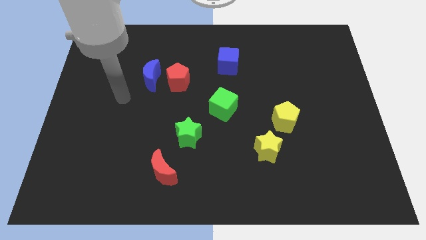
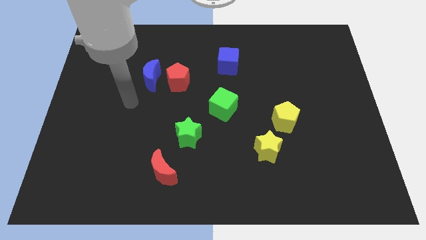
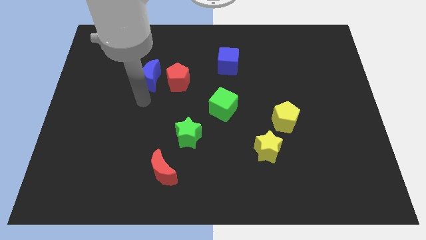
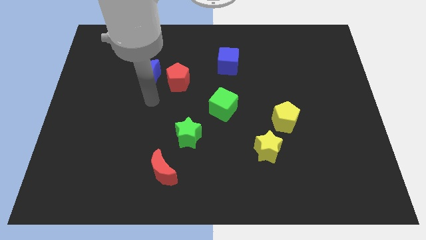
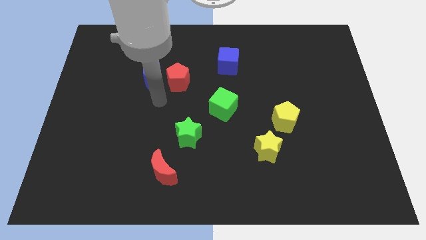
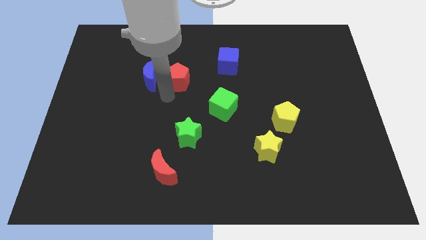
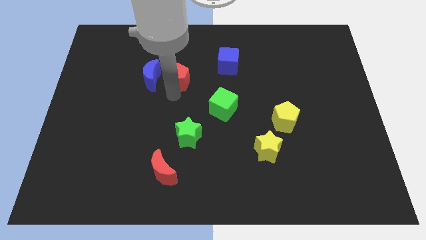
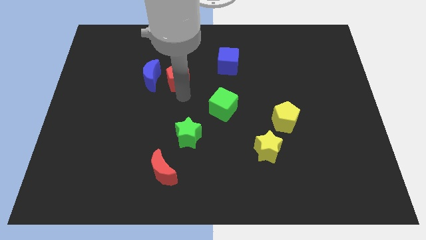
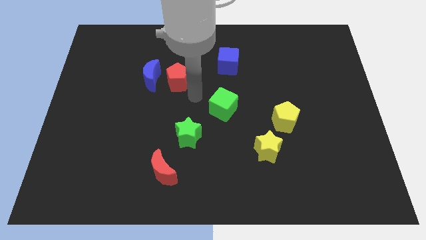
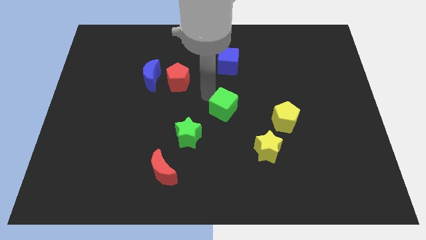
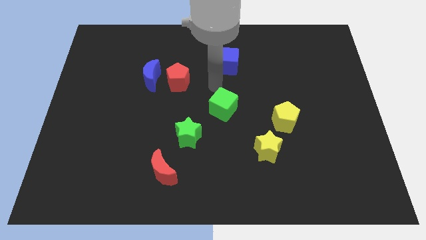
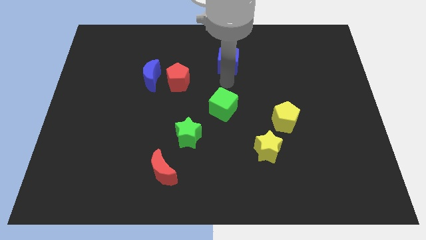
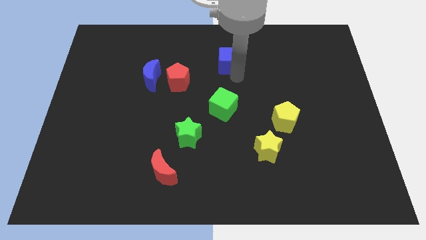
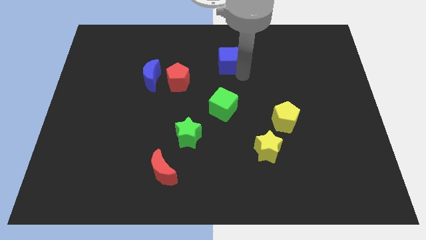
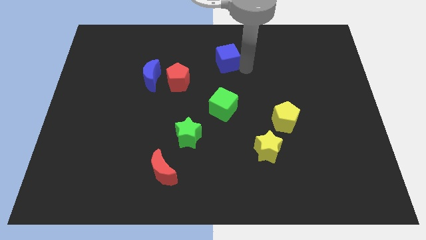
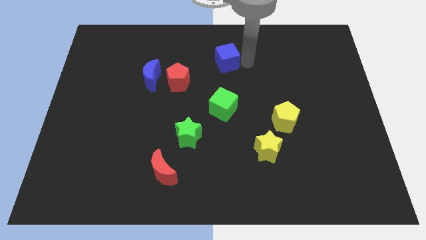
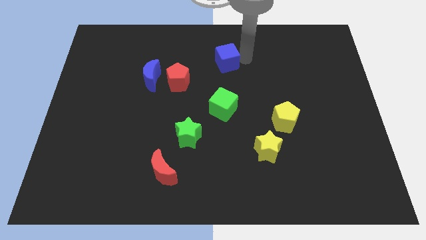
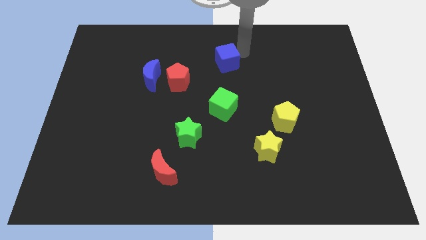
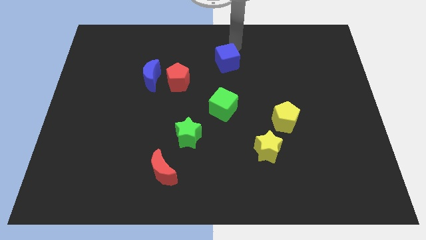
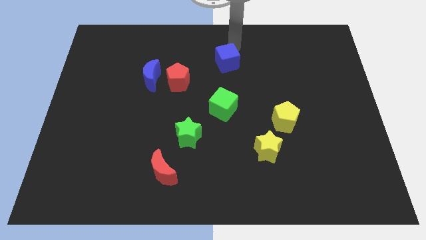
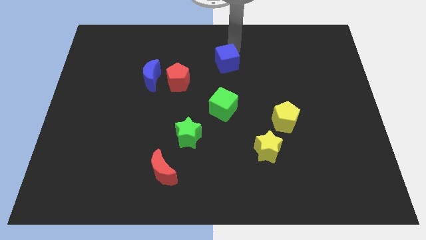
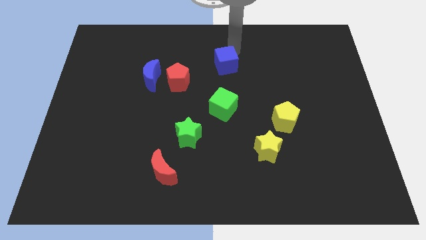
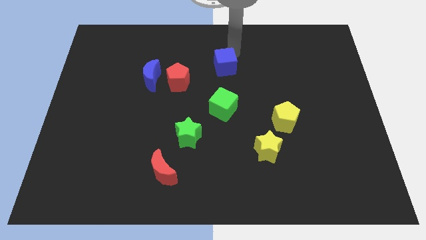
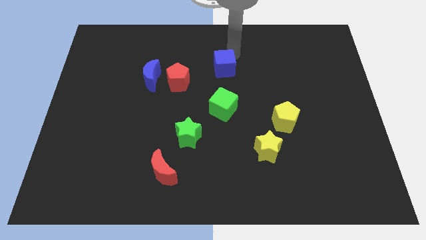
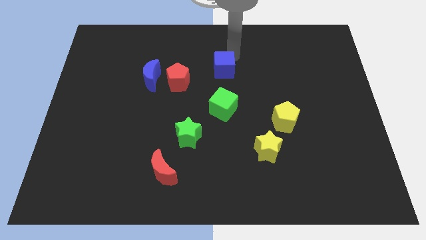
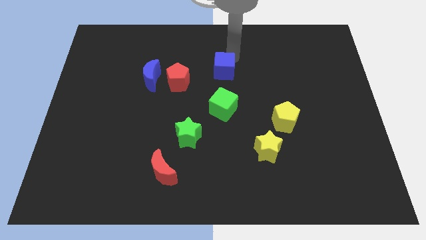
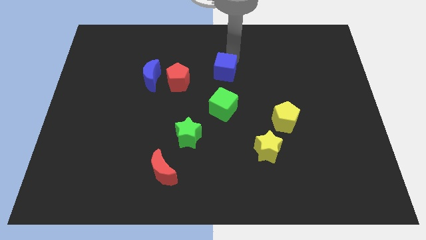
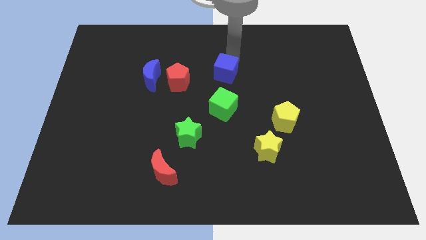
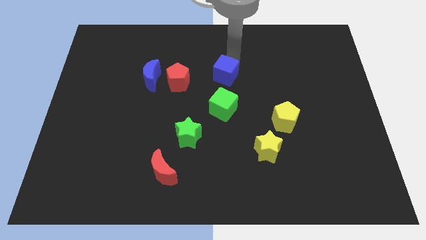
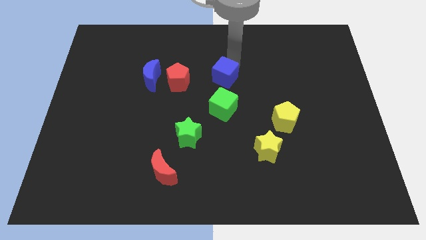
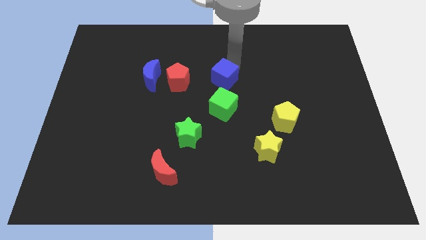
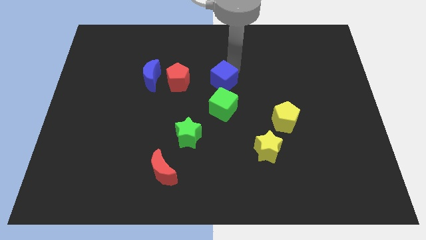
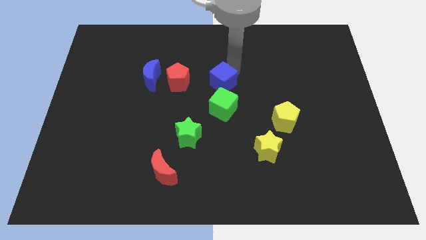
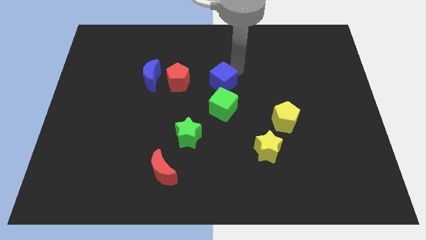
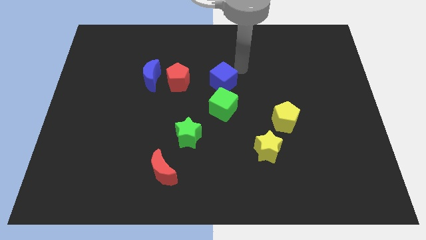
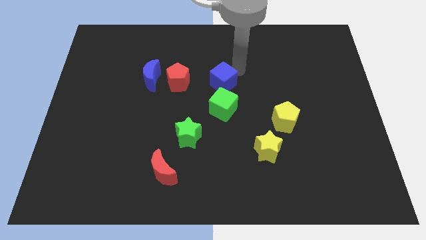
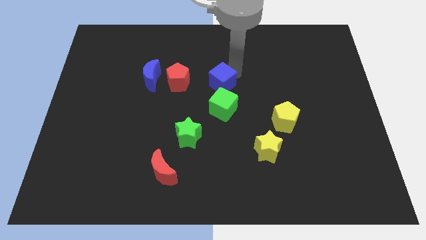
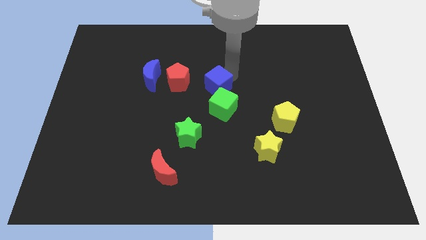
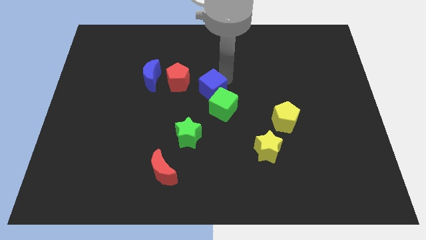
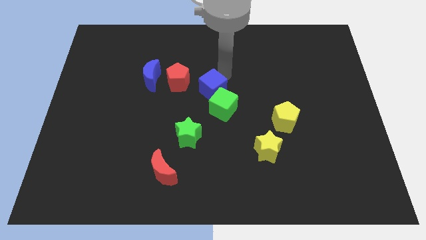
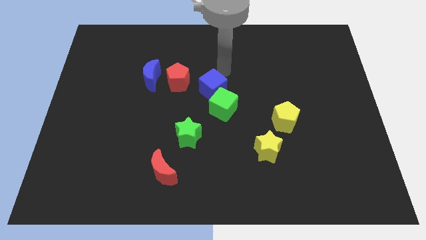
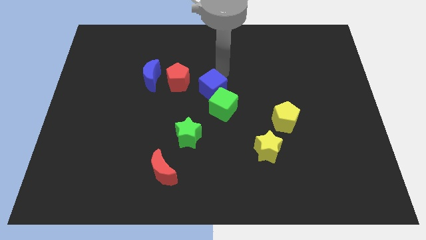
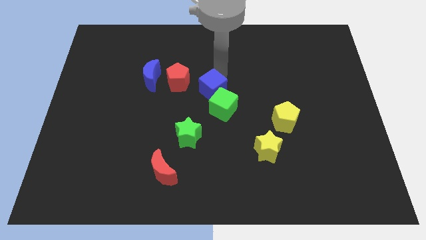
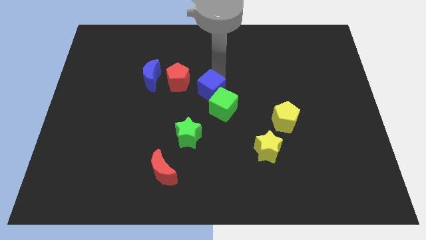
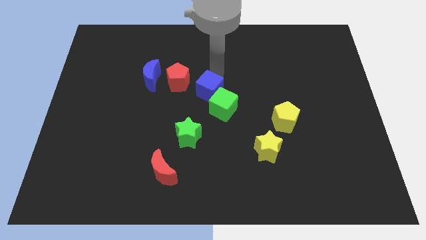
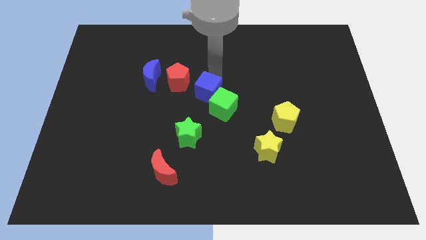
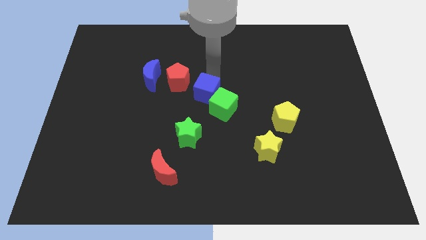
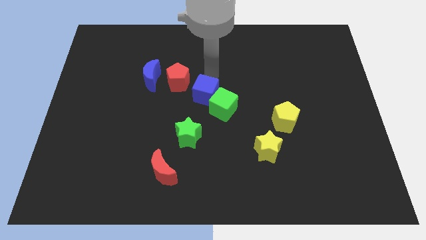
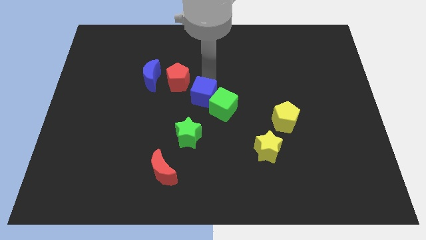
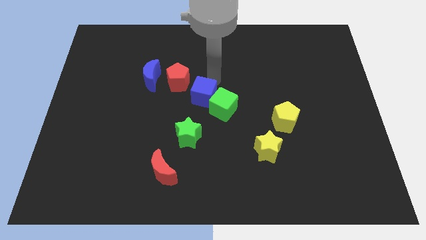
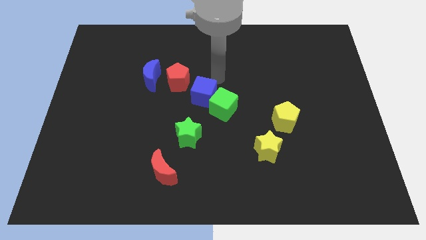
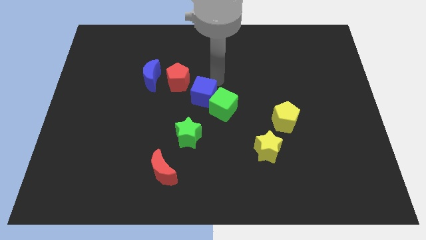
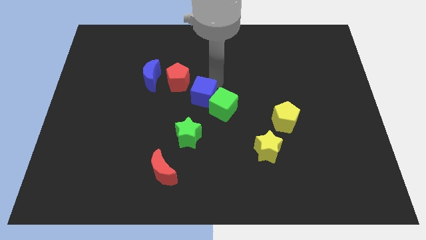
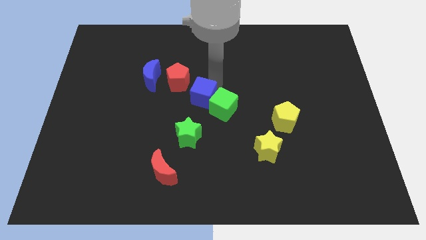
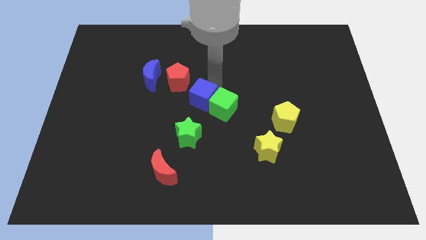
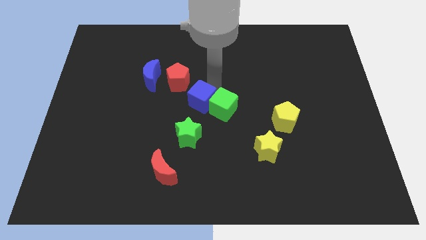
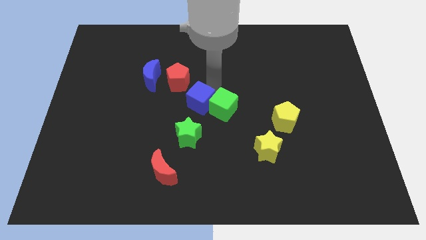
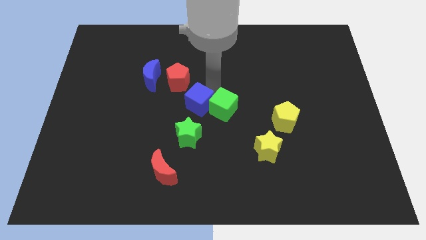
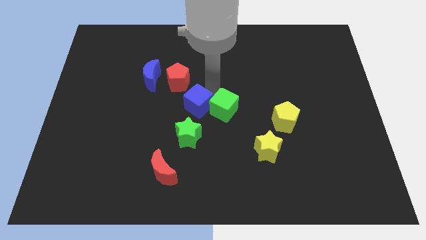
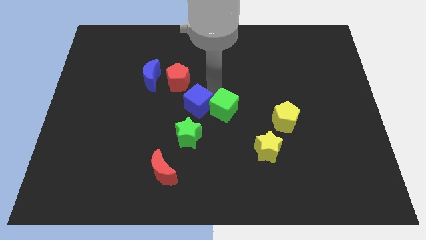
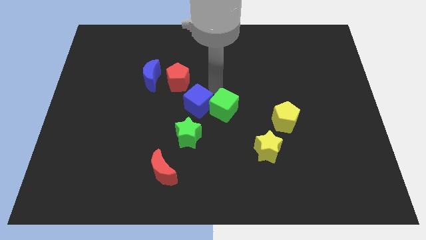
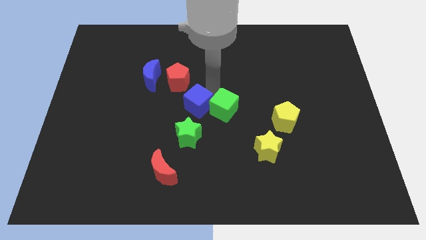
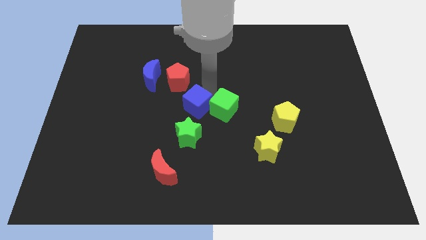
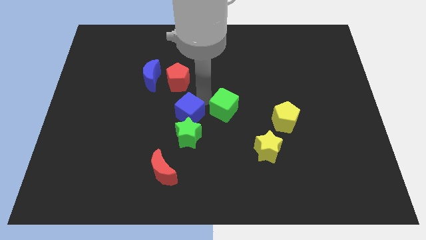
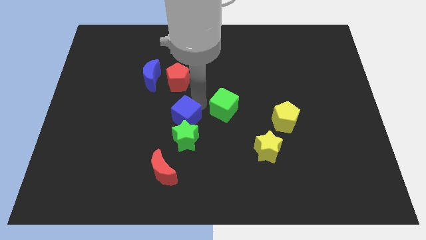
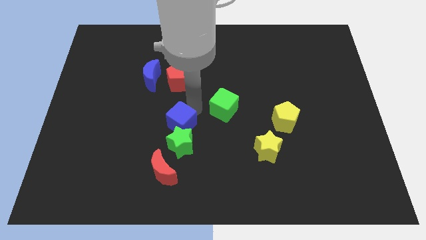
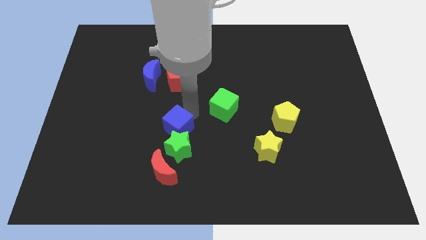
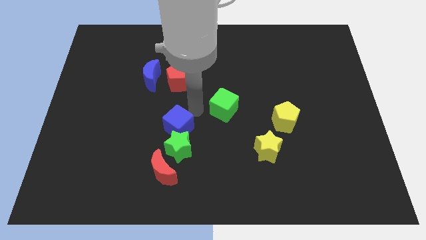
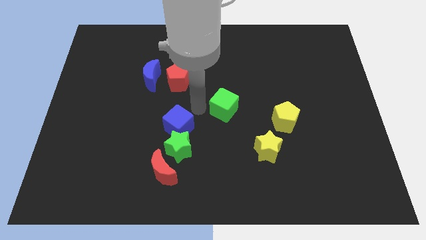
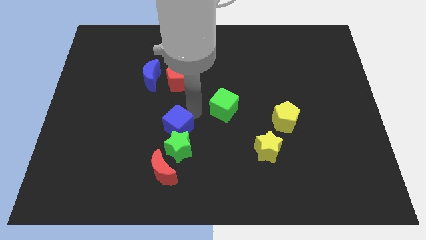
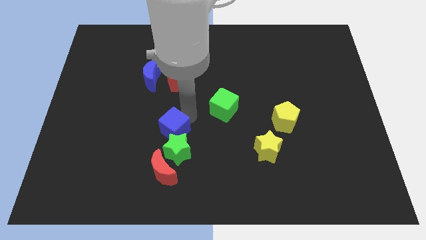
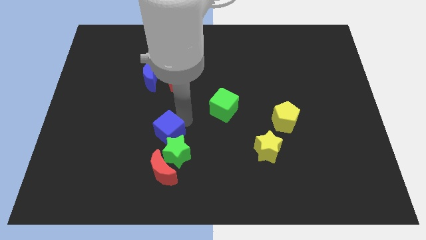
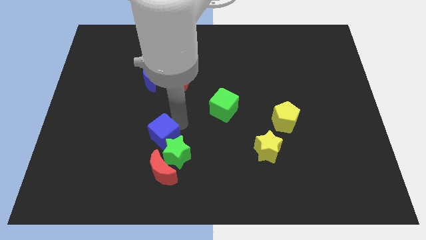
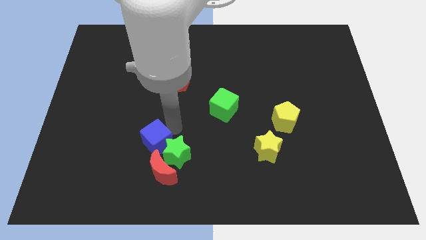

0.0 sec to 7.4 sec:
put the blue cube diagonally up and to the left of the red moon
